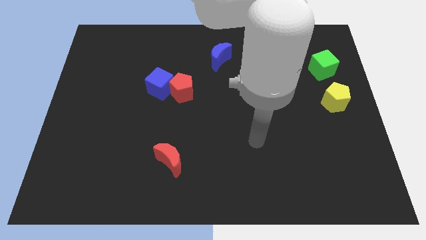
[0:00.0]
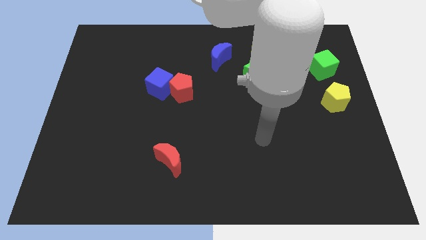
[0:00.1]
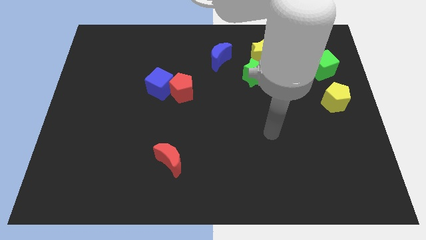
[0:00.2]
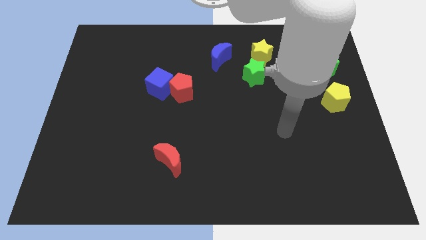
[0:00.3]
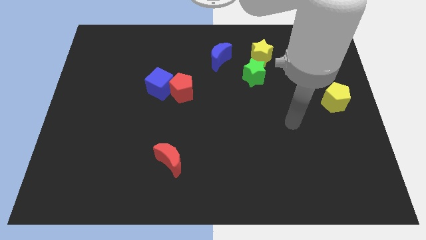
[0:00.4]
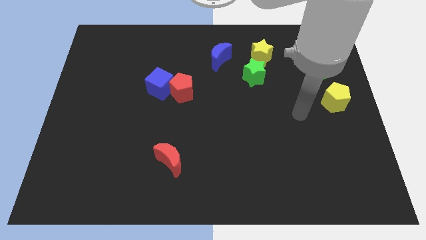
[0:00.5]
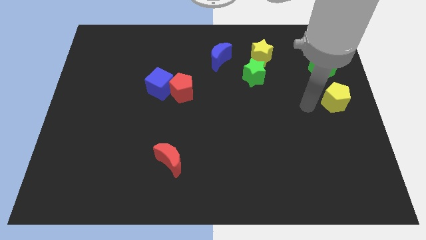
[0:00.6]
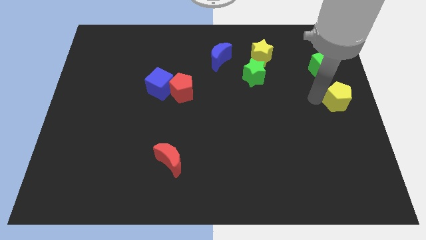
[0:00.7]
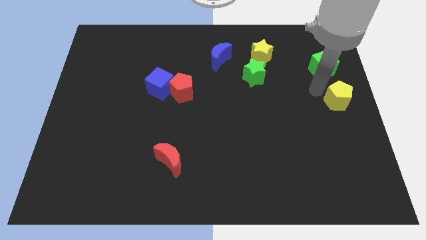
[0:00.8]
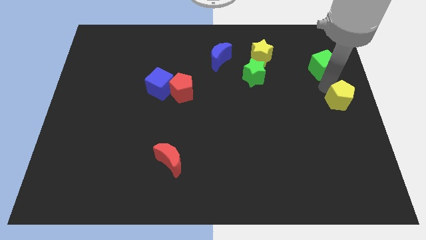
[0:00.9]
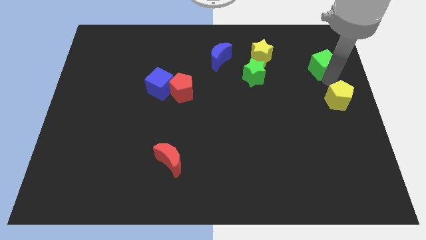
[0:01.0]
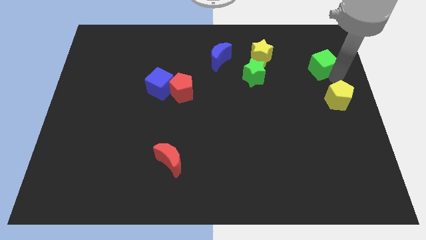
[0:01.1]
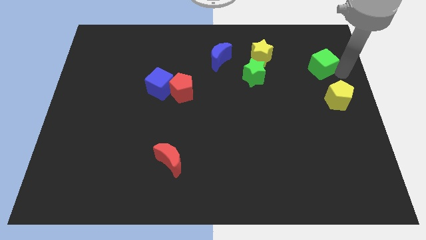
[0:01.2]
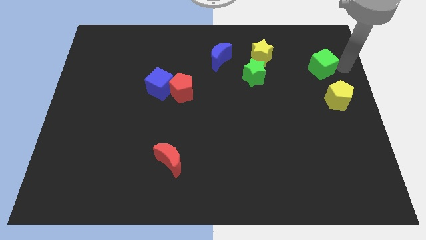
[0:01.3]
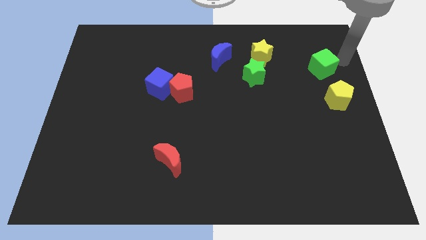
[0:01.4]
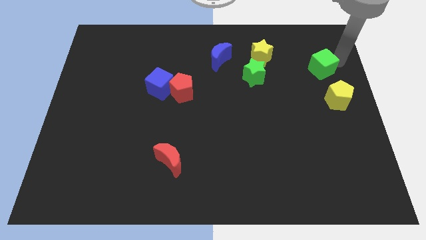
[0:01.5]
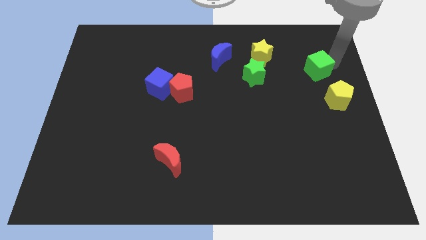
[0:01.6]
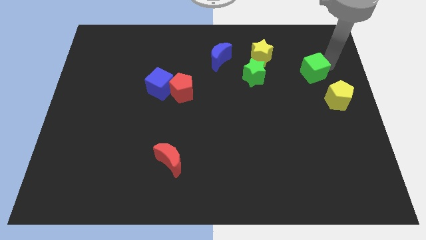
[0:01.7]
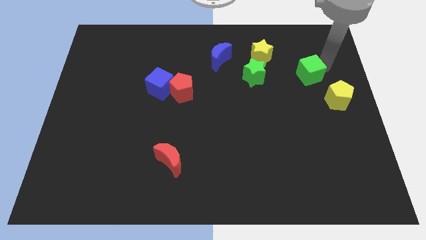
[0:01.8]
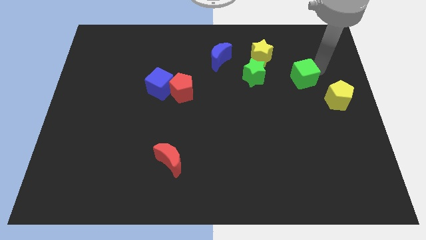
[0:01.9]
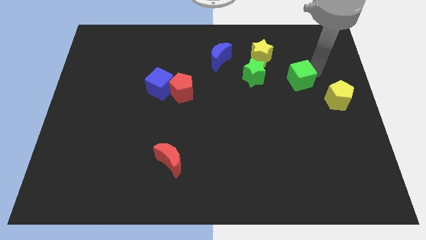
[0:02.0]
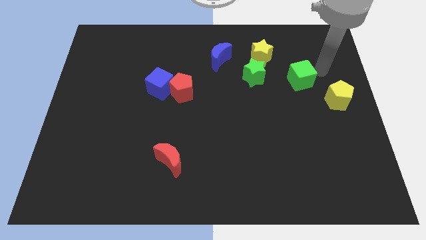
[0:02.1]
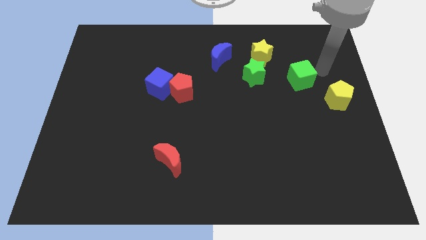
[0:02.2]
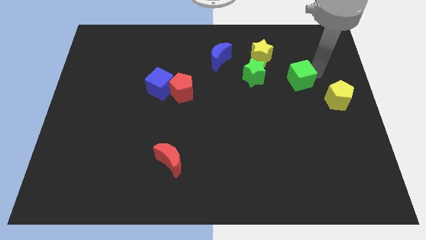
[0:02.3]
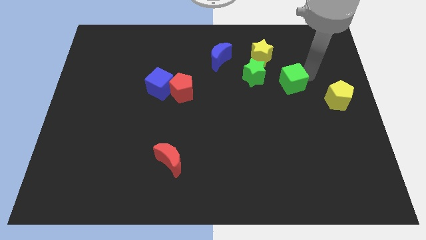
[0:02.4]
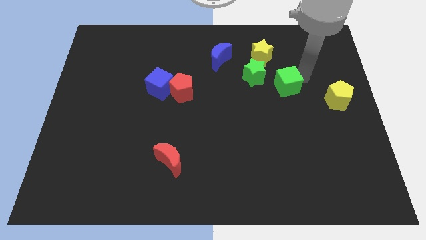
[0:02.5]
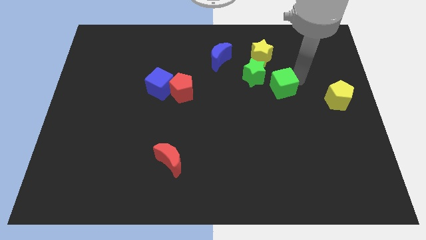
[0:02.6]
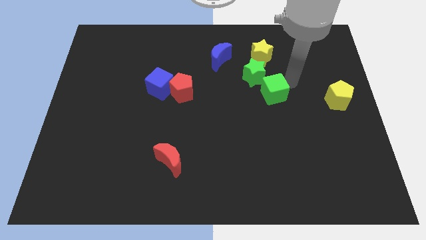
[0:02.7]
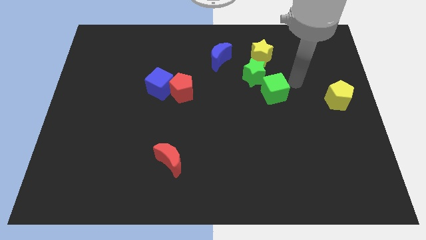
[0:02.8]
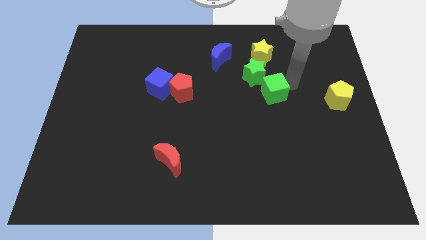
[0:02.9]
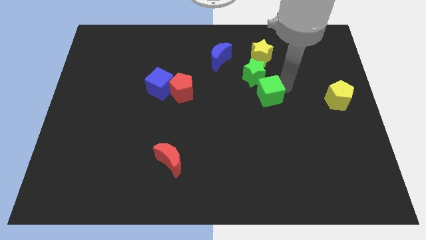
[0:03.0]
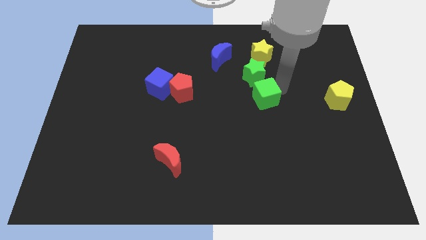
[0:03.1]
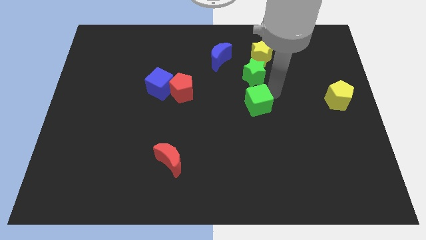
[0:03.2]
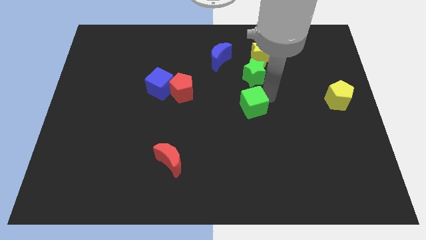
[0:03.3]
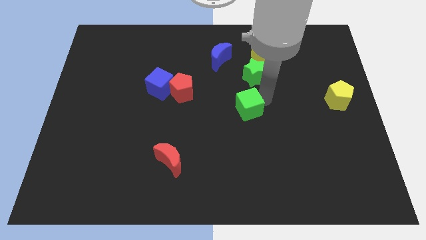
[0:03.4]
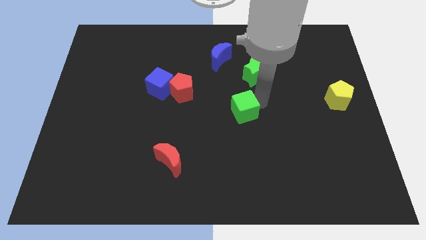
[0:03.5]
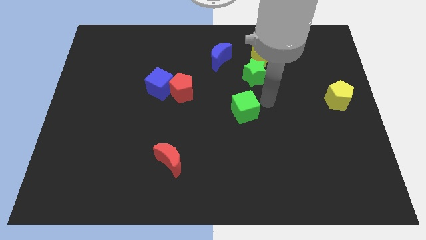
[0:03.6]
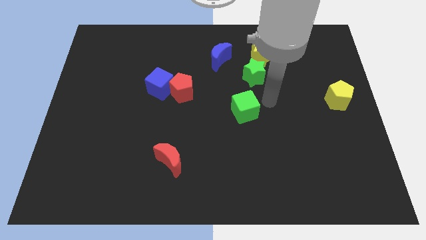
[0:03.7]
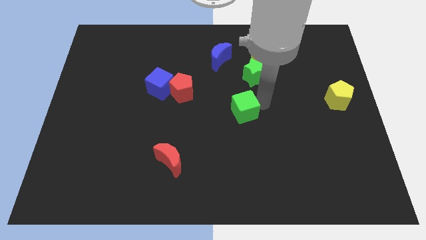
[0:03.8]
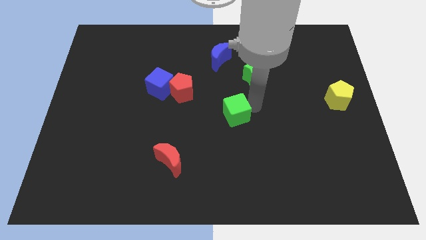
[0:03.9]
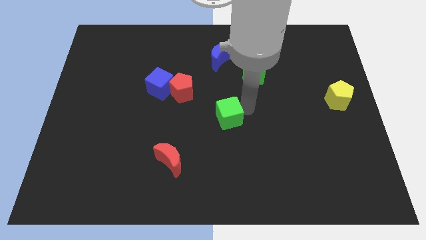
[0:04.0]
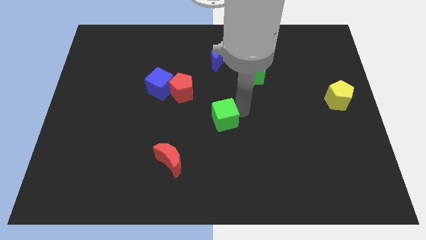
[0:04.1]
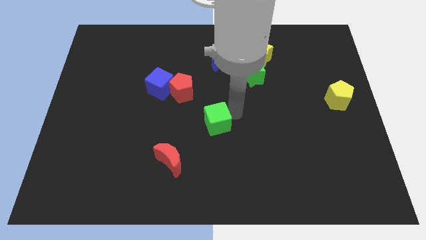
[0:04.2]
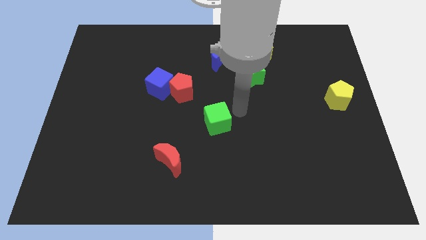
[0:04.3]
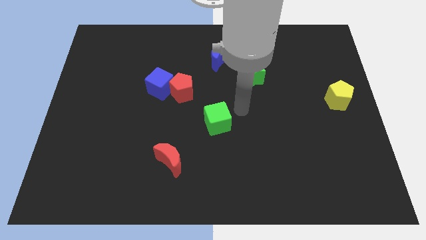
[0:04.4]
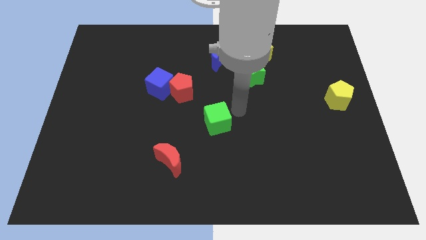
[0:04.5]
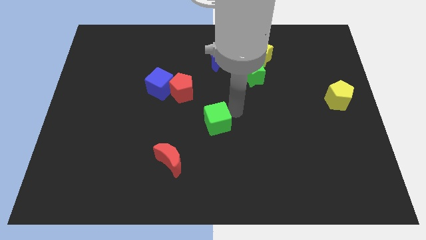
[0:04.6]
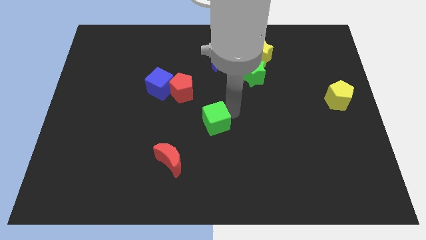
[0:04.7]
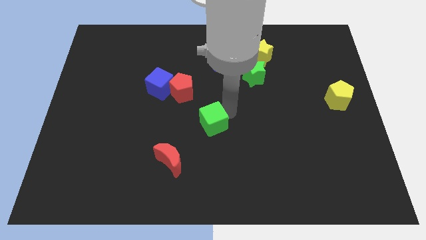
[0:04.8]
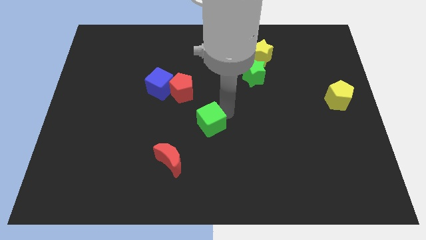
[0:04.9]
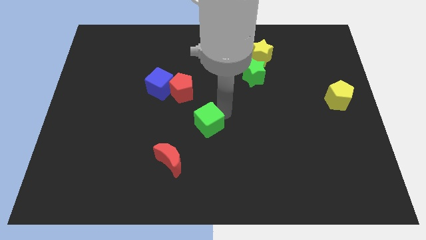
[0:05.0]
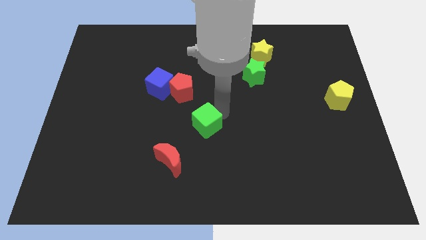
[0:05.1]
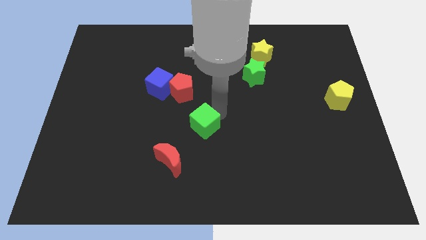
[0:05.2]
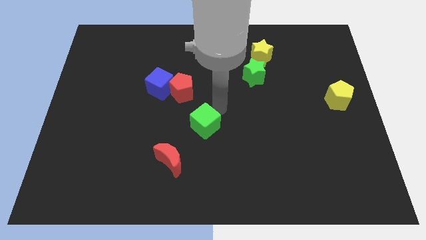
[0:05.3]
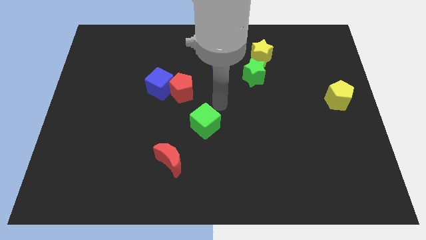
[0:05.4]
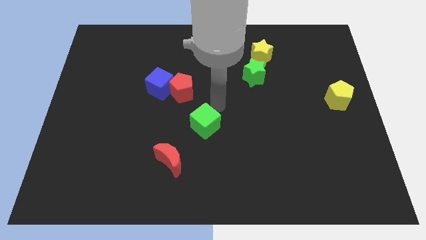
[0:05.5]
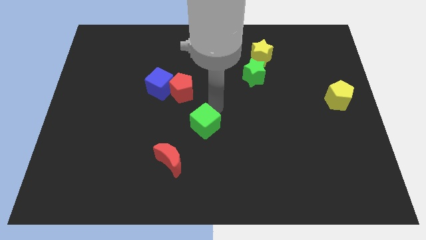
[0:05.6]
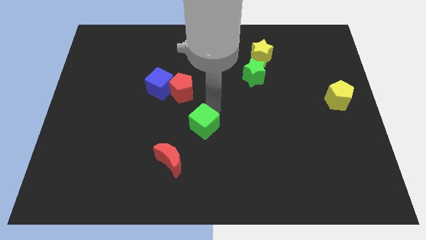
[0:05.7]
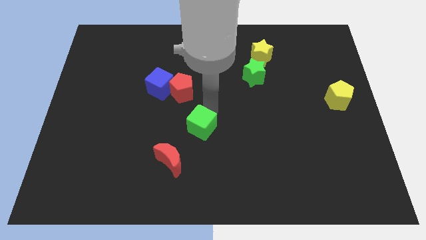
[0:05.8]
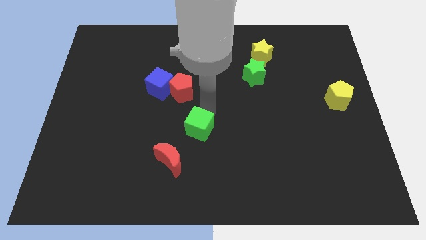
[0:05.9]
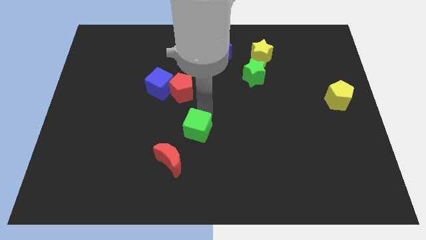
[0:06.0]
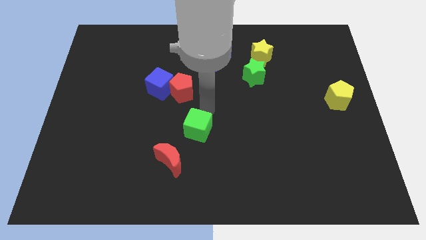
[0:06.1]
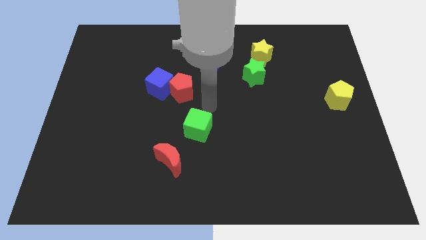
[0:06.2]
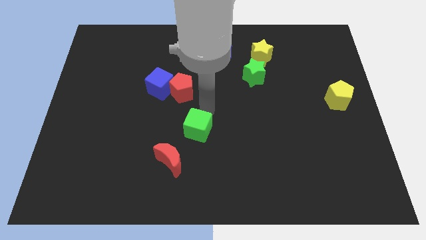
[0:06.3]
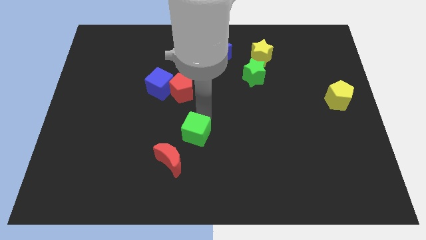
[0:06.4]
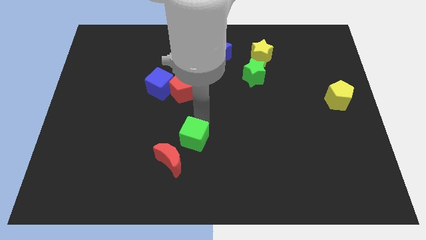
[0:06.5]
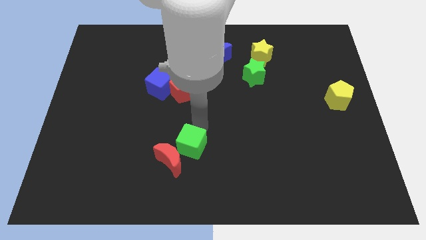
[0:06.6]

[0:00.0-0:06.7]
put the green cube next to the red moon

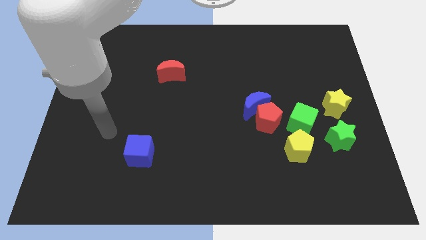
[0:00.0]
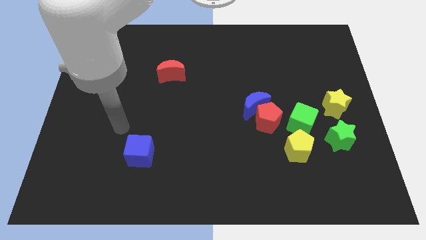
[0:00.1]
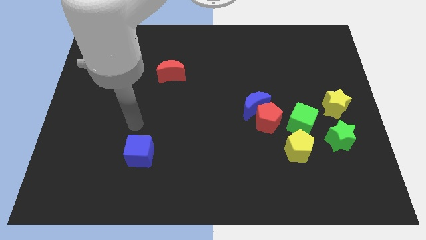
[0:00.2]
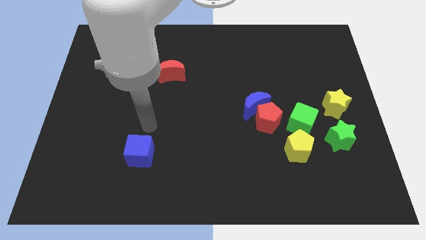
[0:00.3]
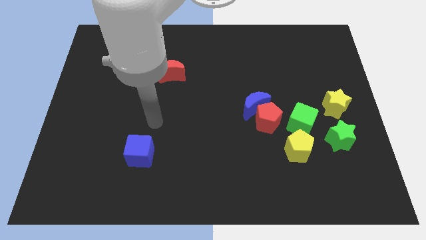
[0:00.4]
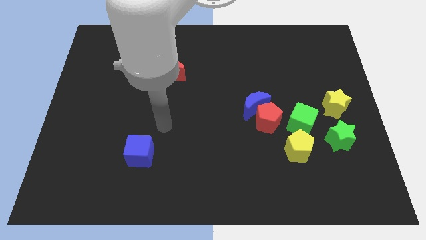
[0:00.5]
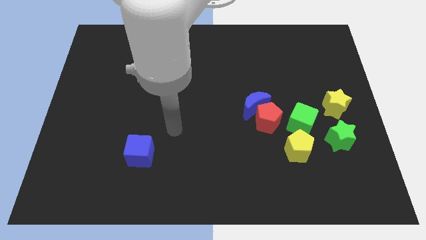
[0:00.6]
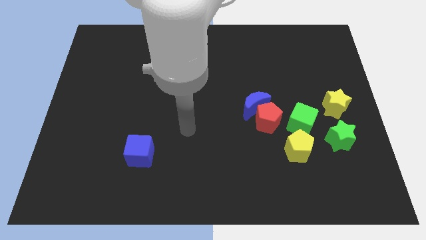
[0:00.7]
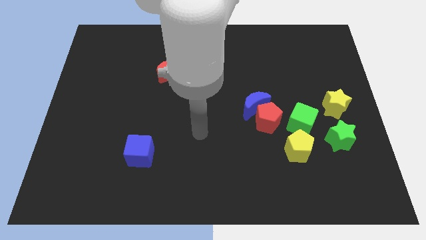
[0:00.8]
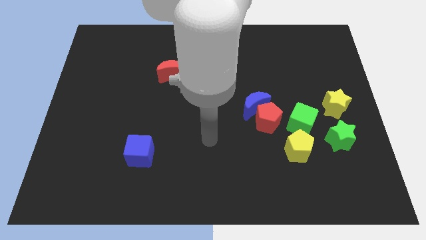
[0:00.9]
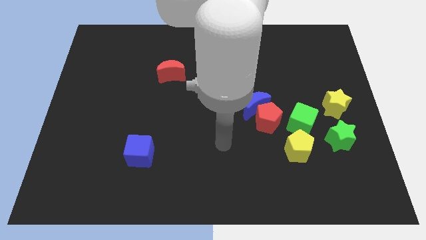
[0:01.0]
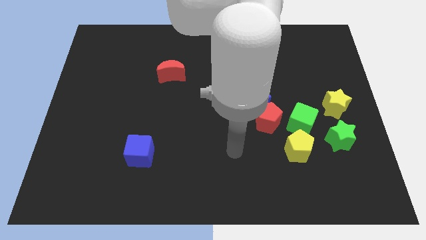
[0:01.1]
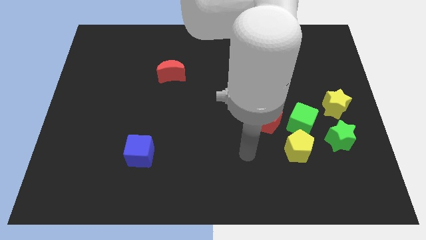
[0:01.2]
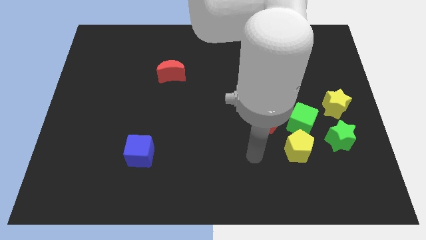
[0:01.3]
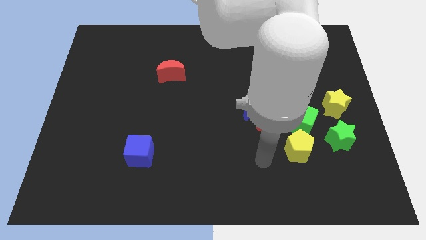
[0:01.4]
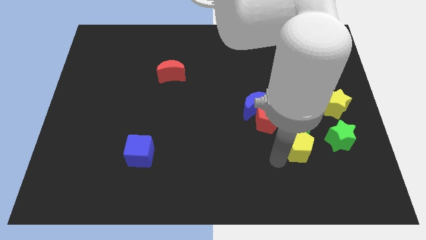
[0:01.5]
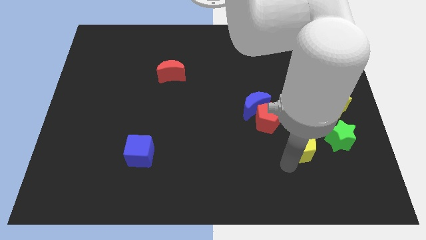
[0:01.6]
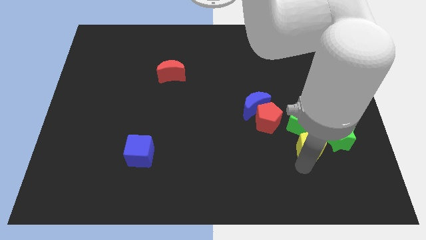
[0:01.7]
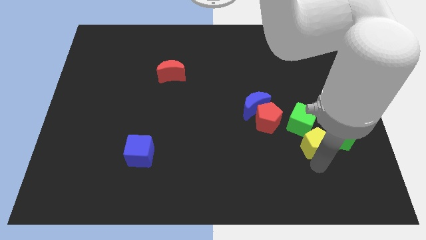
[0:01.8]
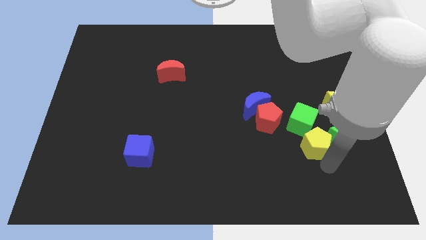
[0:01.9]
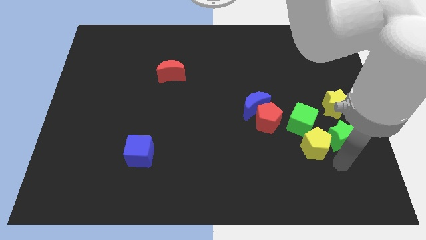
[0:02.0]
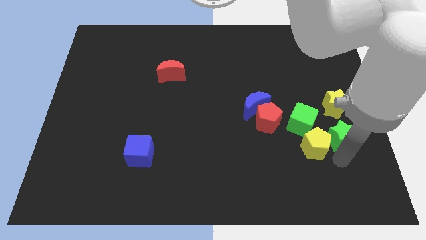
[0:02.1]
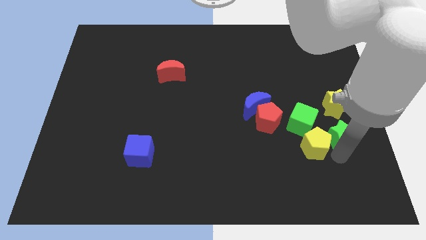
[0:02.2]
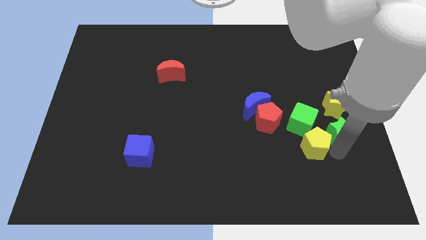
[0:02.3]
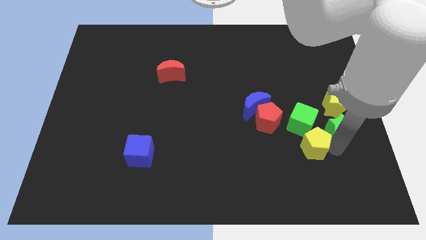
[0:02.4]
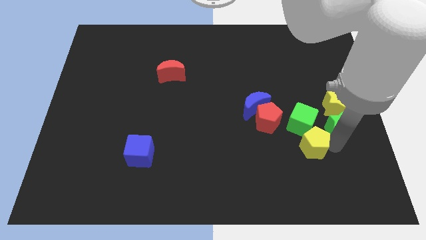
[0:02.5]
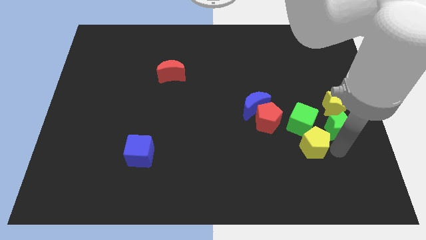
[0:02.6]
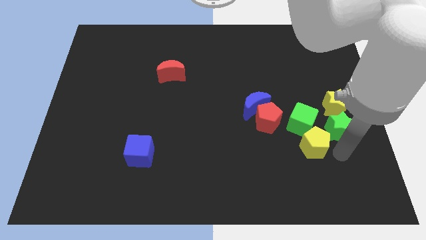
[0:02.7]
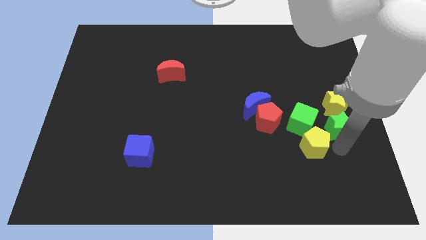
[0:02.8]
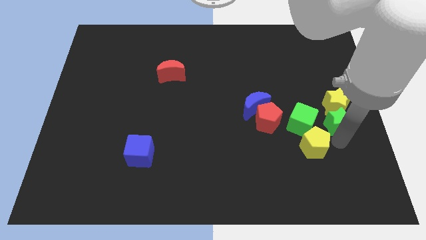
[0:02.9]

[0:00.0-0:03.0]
put the green star towards the yellow star
